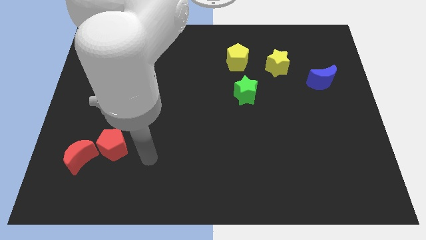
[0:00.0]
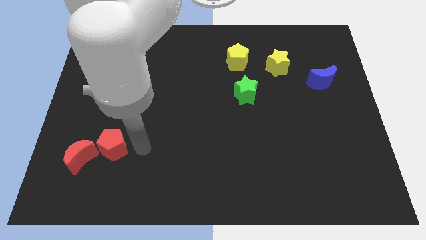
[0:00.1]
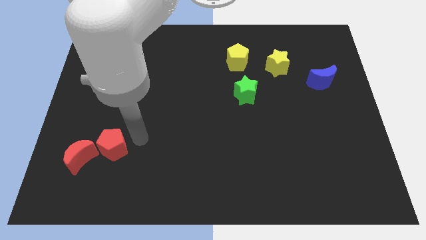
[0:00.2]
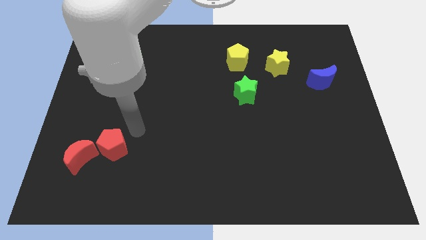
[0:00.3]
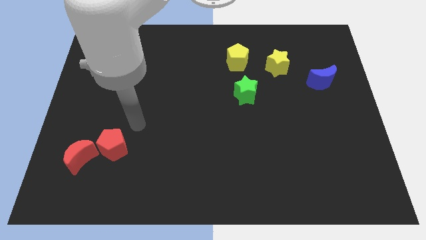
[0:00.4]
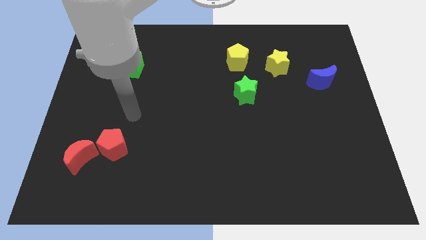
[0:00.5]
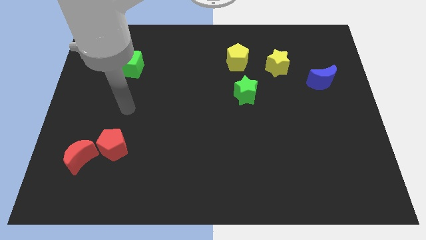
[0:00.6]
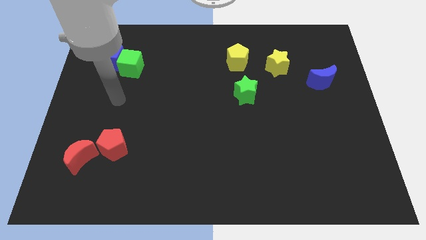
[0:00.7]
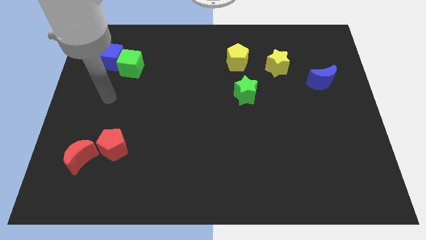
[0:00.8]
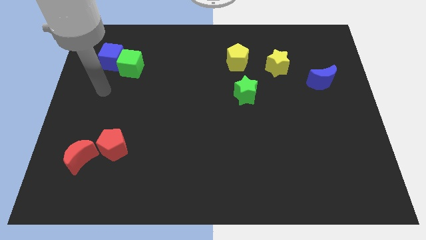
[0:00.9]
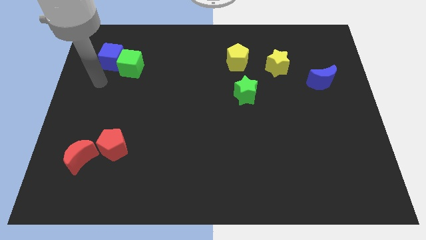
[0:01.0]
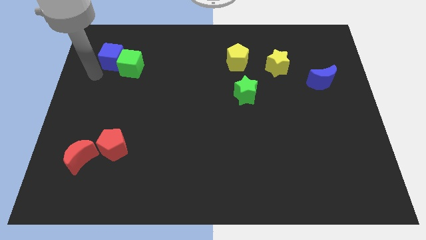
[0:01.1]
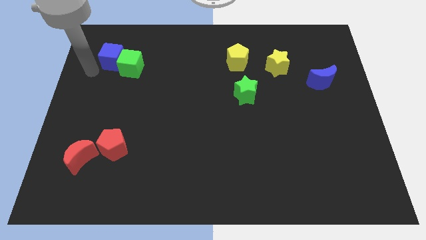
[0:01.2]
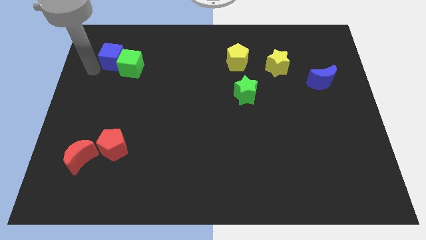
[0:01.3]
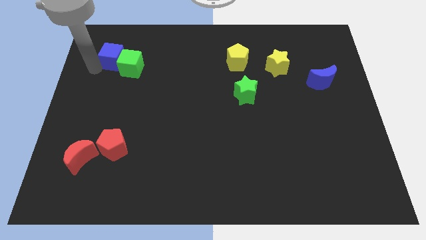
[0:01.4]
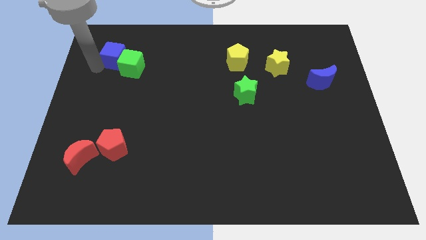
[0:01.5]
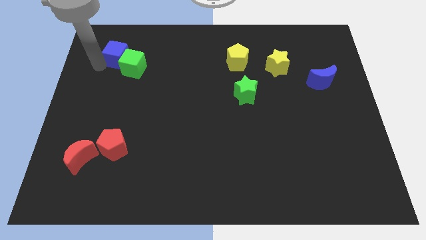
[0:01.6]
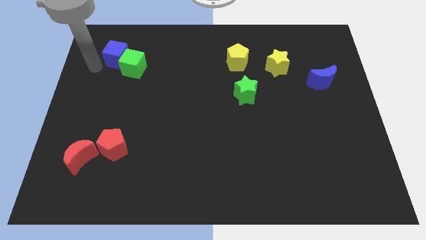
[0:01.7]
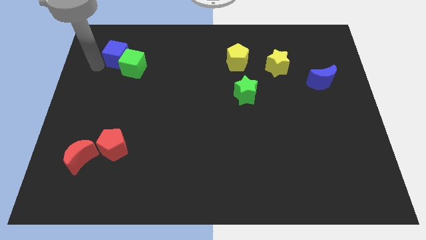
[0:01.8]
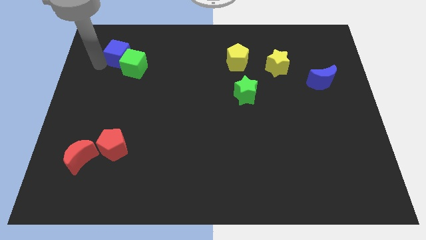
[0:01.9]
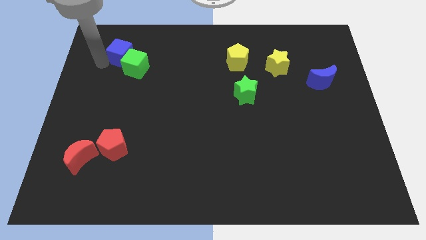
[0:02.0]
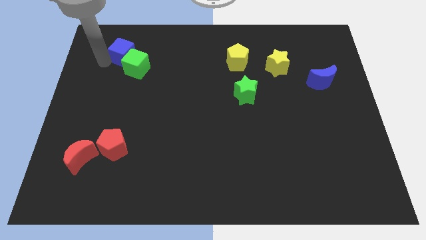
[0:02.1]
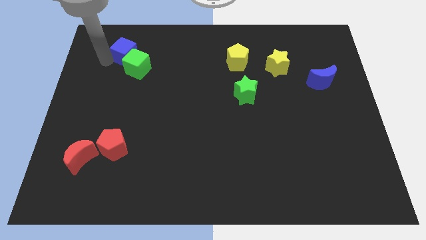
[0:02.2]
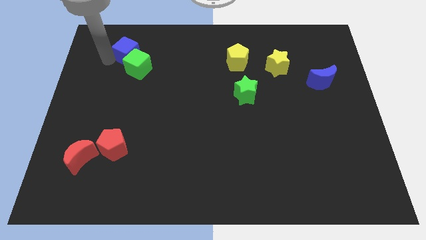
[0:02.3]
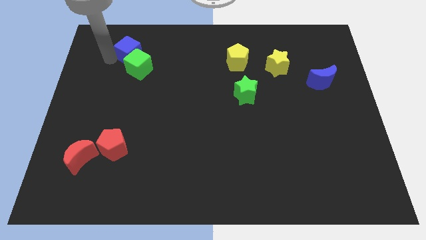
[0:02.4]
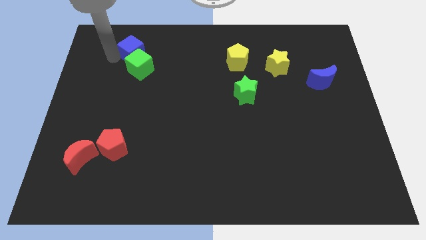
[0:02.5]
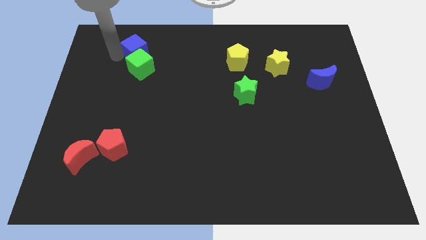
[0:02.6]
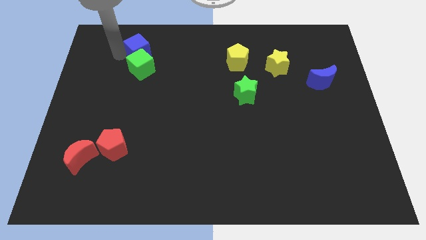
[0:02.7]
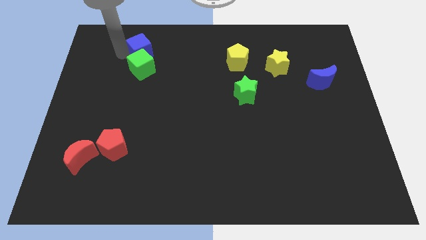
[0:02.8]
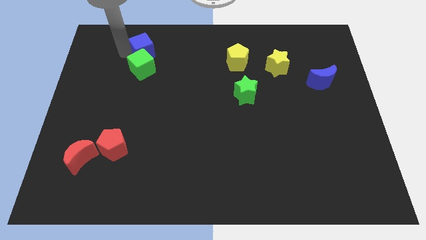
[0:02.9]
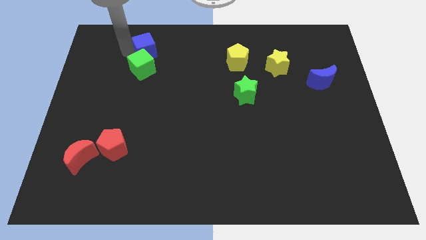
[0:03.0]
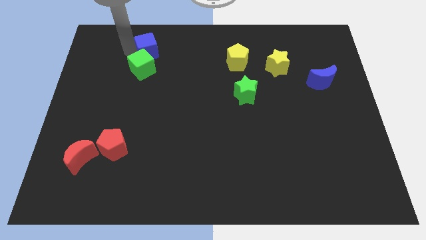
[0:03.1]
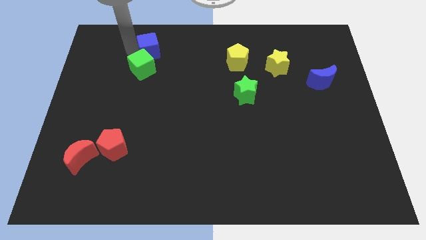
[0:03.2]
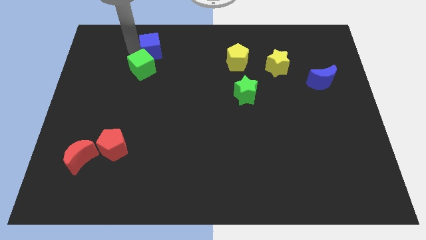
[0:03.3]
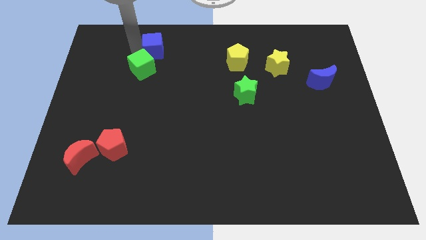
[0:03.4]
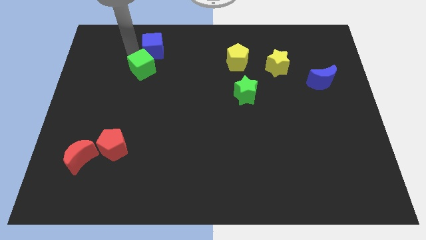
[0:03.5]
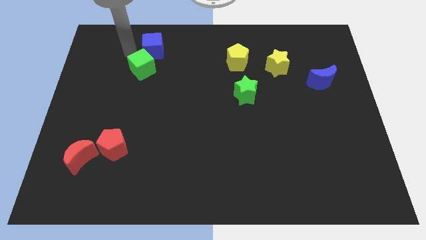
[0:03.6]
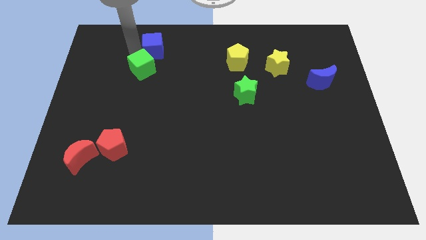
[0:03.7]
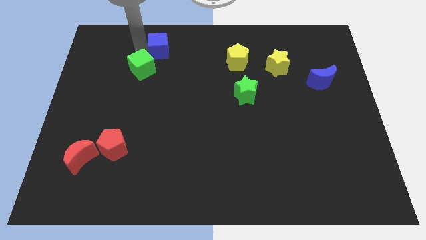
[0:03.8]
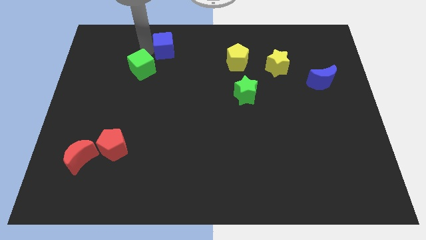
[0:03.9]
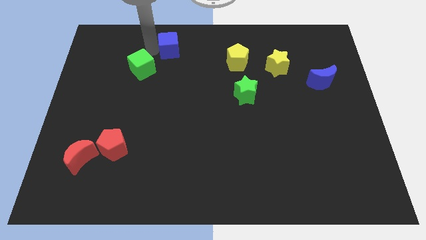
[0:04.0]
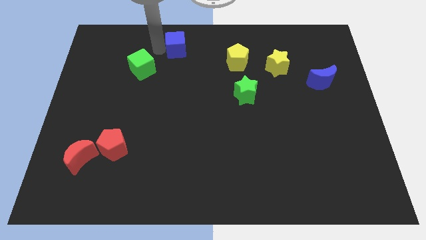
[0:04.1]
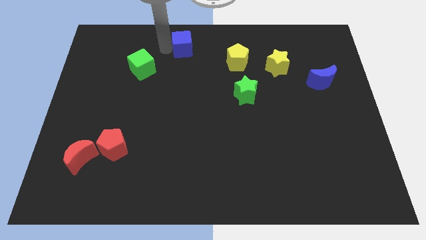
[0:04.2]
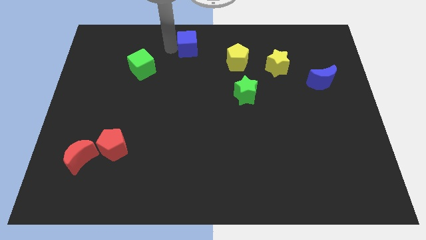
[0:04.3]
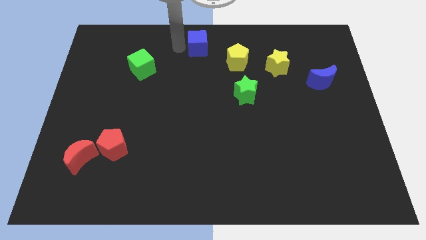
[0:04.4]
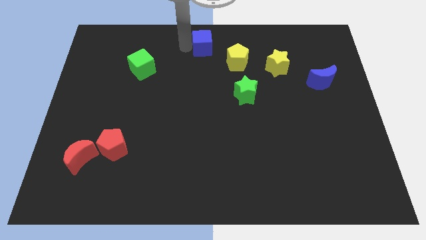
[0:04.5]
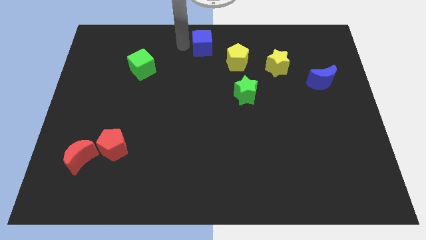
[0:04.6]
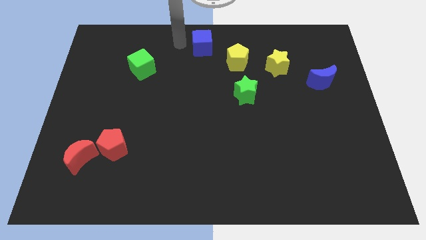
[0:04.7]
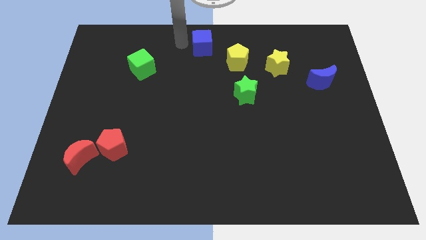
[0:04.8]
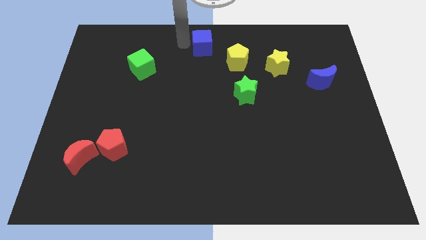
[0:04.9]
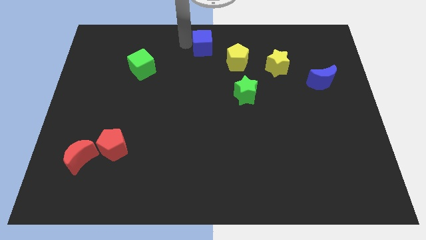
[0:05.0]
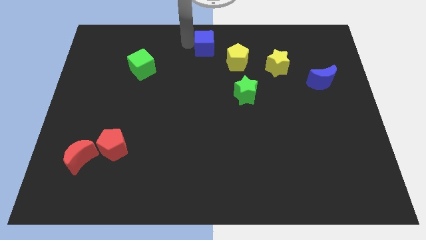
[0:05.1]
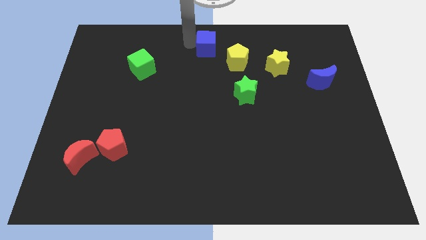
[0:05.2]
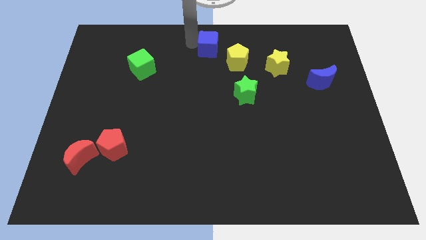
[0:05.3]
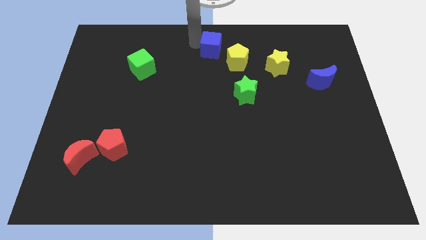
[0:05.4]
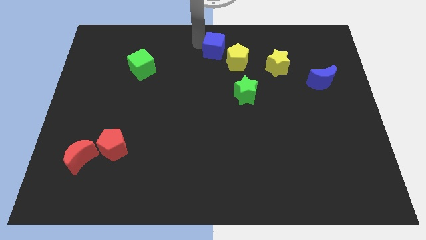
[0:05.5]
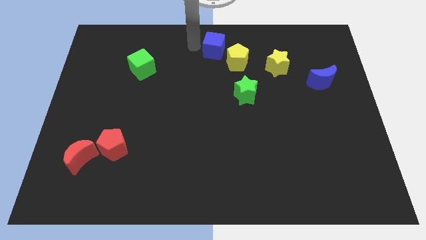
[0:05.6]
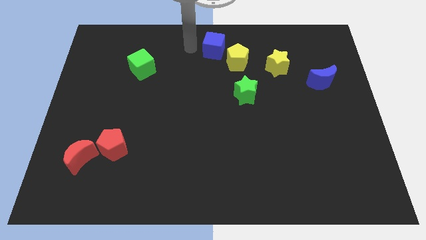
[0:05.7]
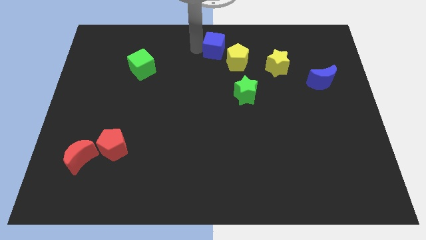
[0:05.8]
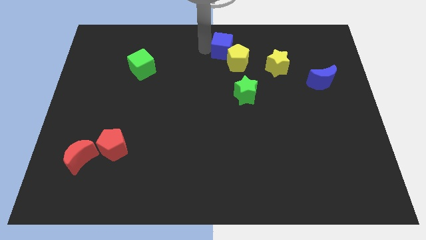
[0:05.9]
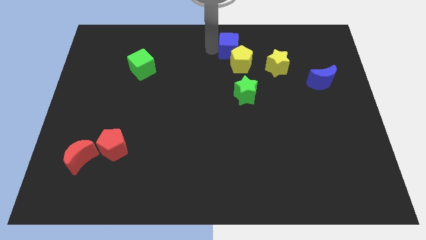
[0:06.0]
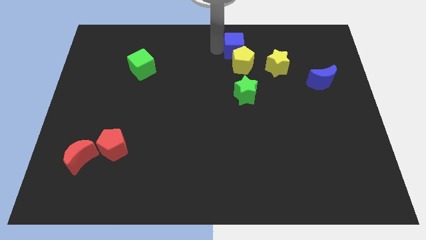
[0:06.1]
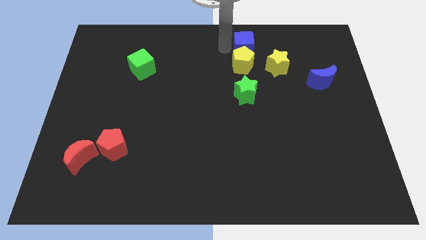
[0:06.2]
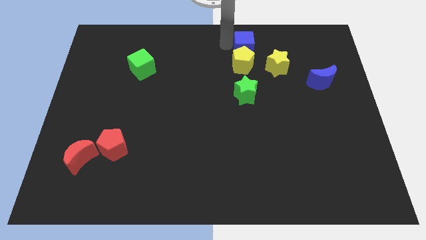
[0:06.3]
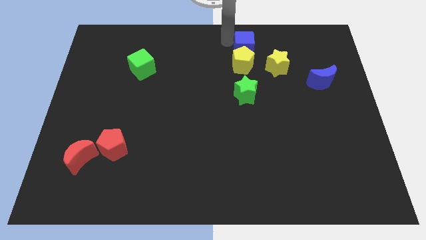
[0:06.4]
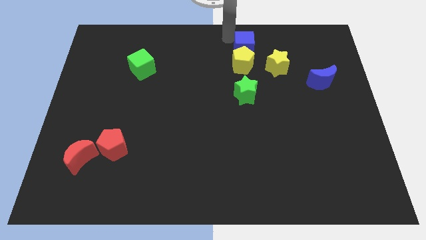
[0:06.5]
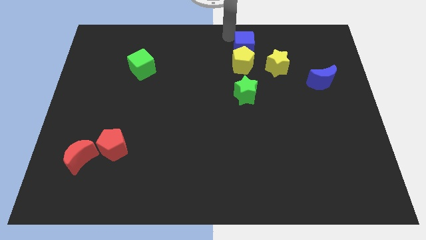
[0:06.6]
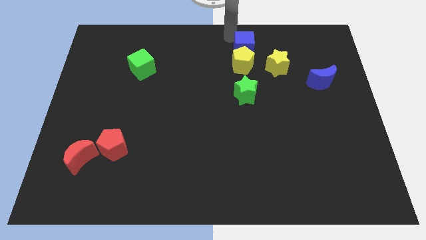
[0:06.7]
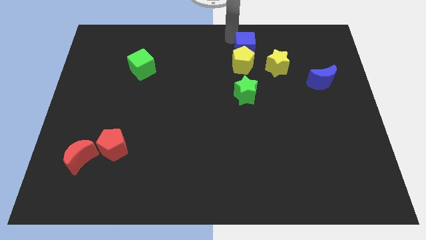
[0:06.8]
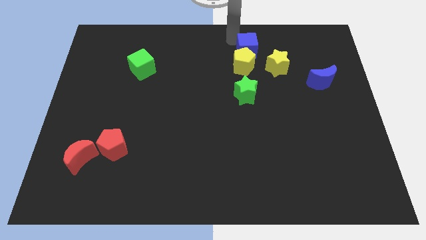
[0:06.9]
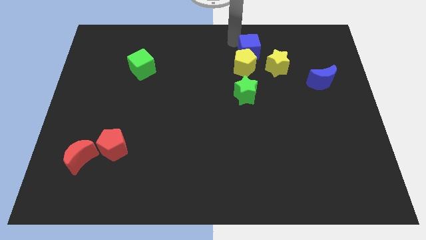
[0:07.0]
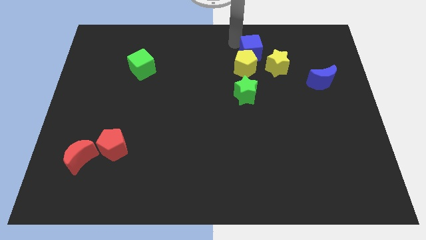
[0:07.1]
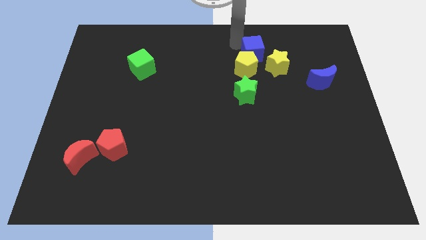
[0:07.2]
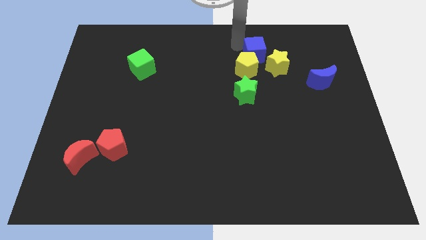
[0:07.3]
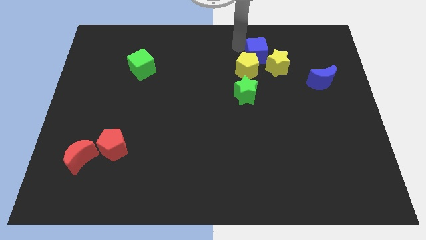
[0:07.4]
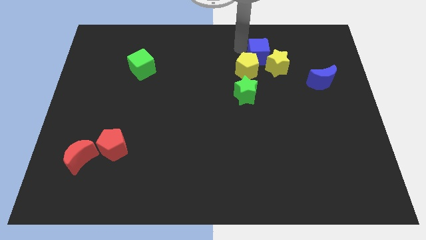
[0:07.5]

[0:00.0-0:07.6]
slide the blue cube to the yellow star
